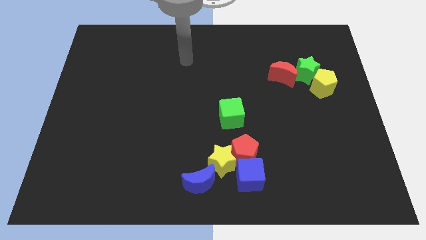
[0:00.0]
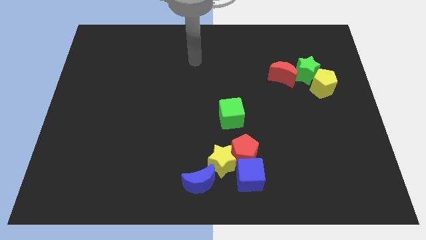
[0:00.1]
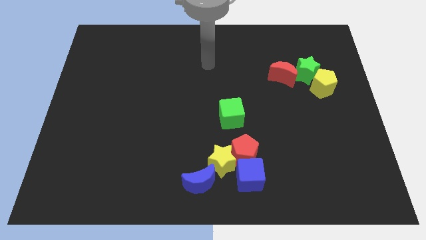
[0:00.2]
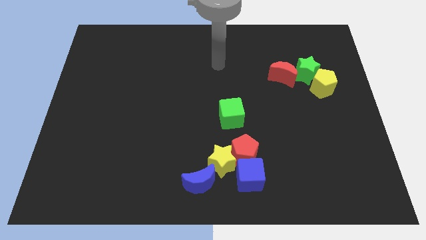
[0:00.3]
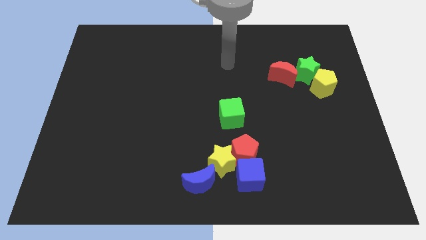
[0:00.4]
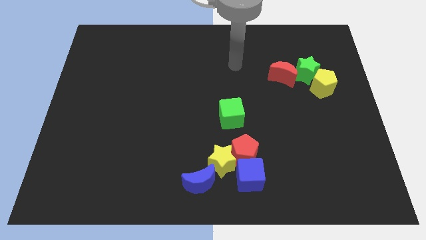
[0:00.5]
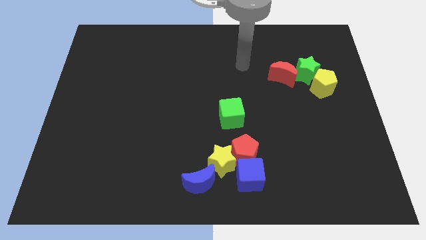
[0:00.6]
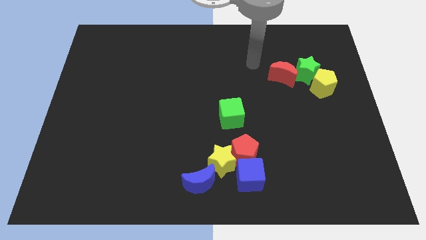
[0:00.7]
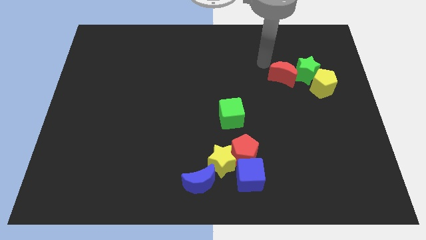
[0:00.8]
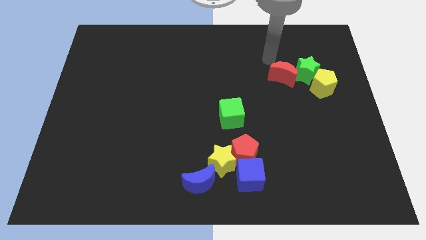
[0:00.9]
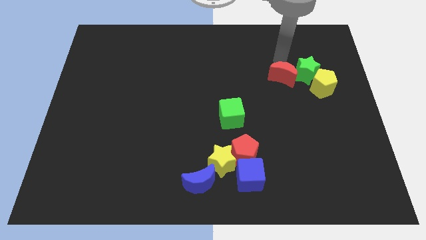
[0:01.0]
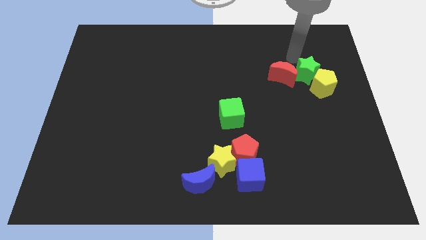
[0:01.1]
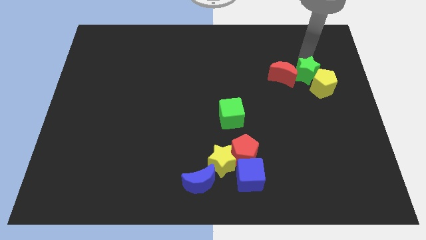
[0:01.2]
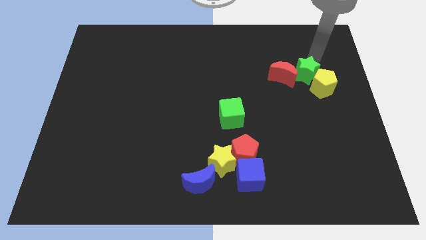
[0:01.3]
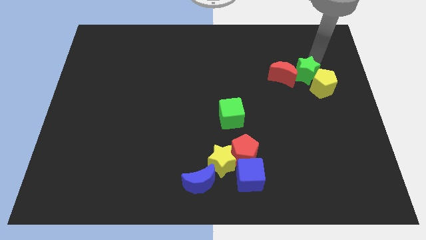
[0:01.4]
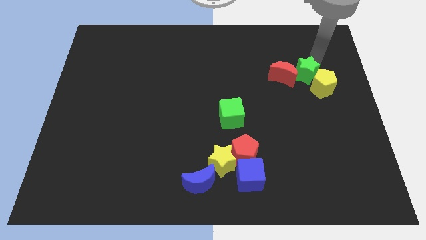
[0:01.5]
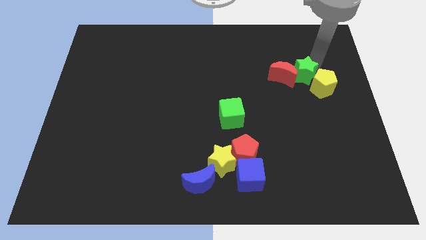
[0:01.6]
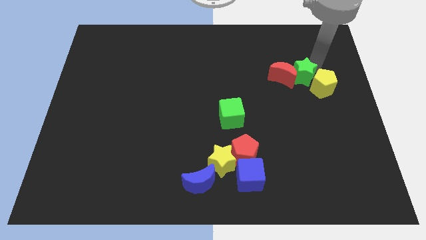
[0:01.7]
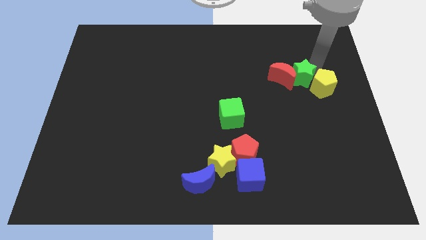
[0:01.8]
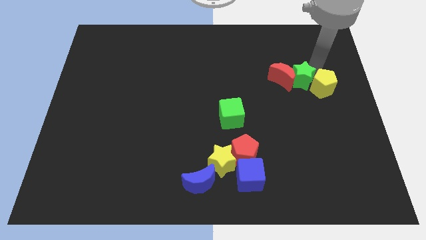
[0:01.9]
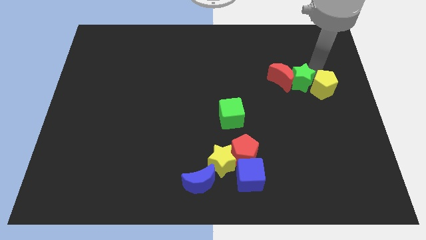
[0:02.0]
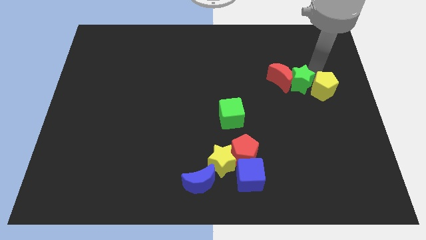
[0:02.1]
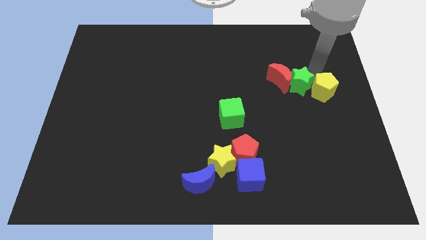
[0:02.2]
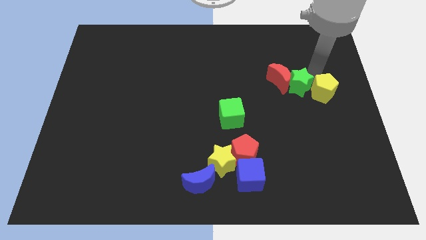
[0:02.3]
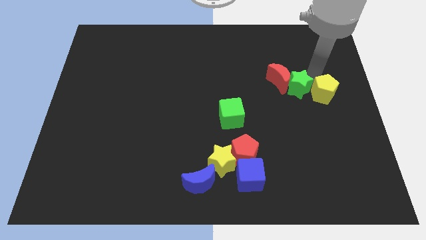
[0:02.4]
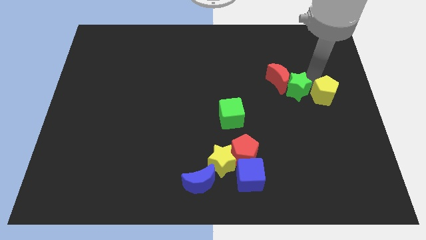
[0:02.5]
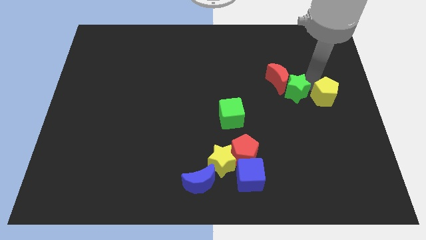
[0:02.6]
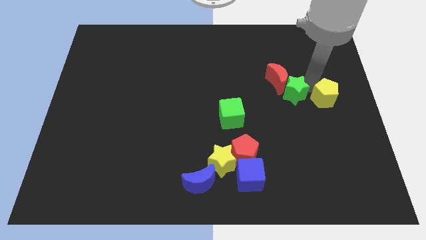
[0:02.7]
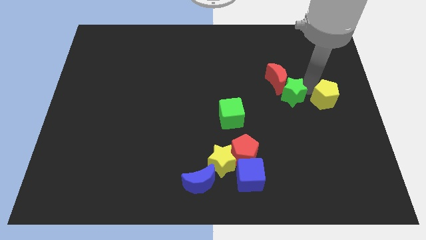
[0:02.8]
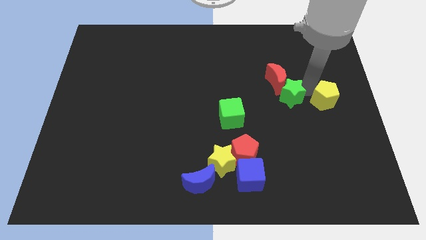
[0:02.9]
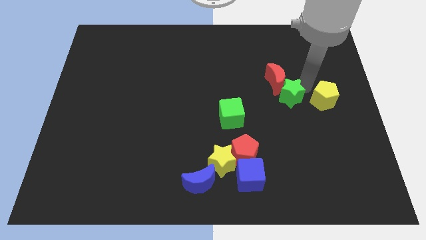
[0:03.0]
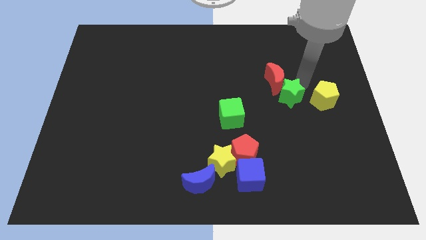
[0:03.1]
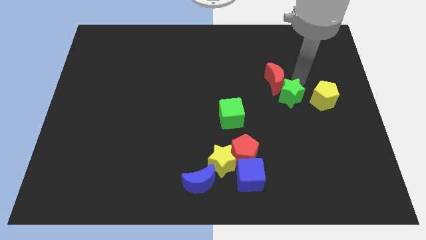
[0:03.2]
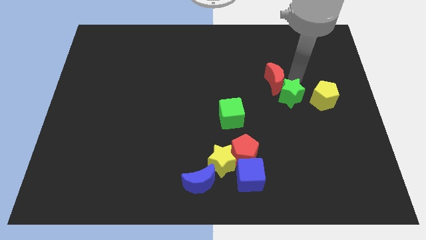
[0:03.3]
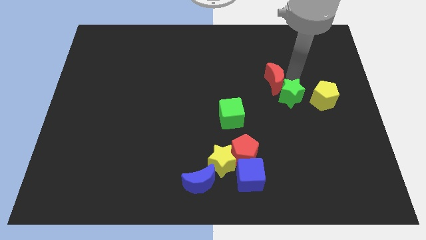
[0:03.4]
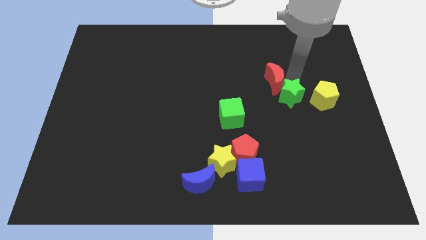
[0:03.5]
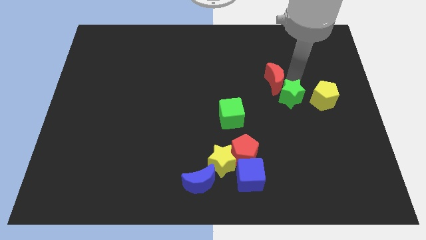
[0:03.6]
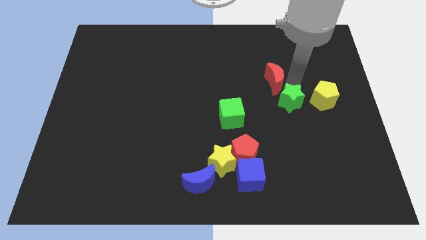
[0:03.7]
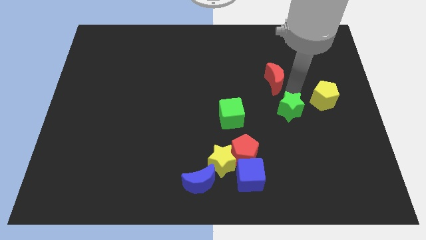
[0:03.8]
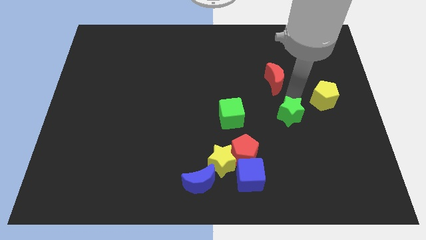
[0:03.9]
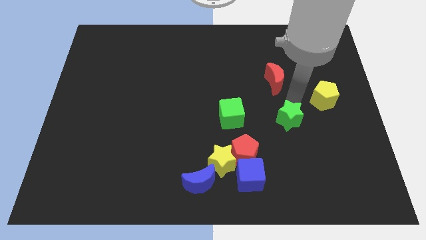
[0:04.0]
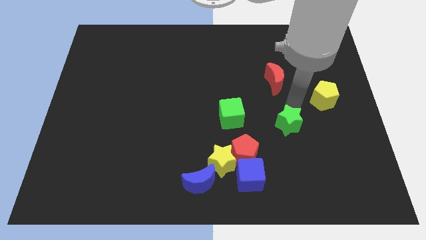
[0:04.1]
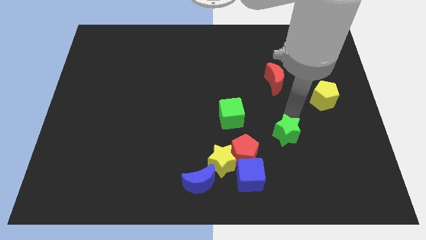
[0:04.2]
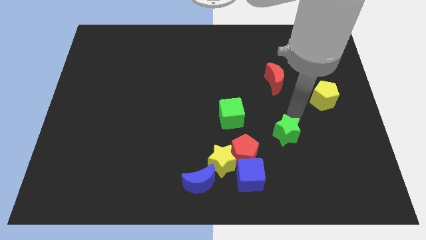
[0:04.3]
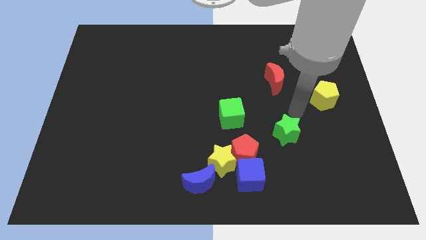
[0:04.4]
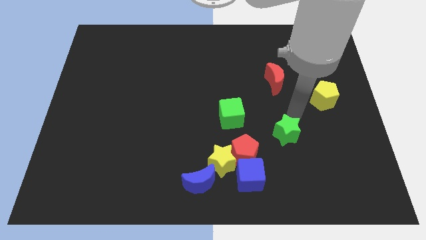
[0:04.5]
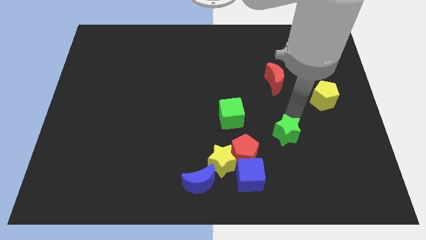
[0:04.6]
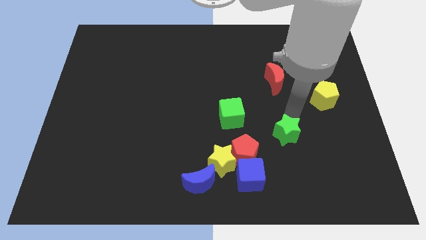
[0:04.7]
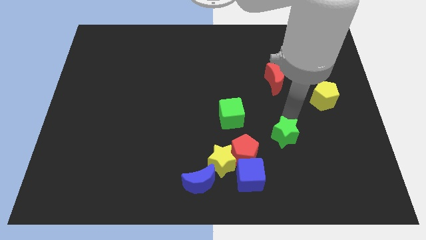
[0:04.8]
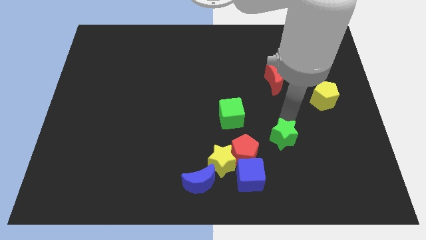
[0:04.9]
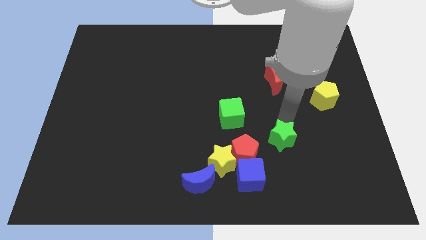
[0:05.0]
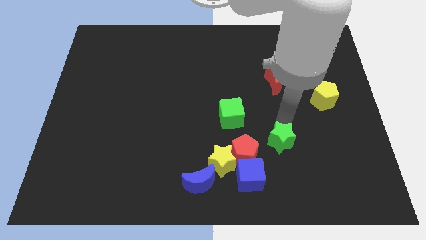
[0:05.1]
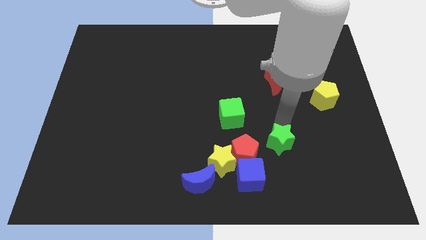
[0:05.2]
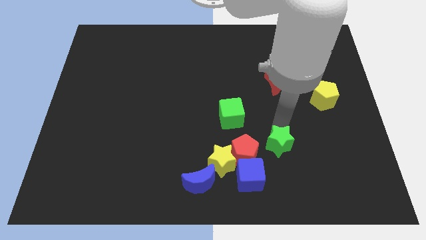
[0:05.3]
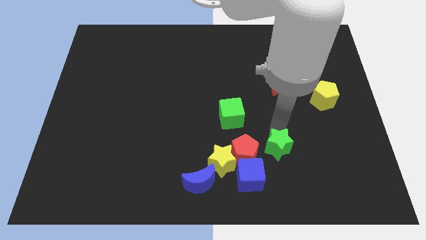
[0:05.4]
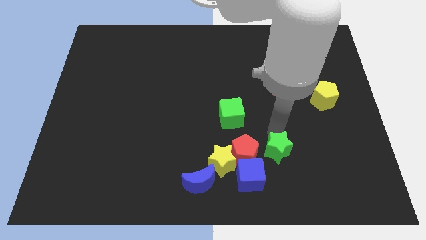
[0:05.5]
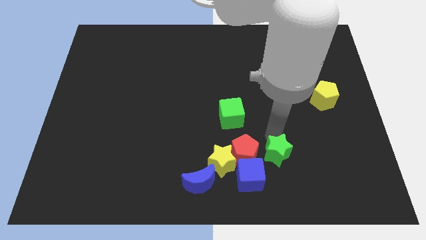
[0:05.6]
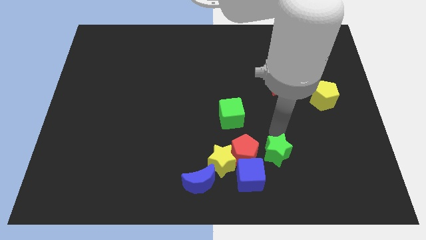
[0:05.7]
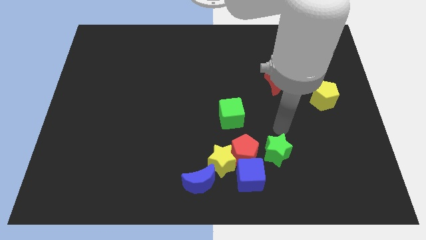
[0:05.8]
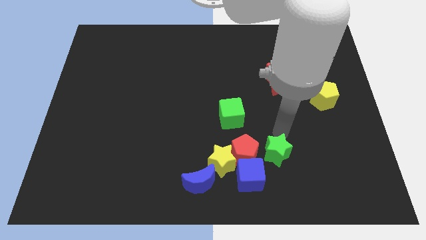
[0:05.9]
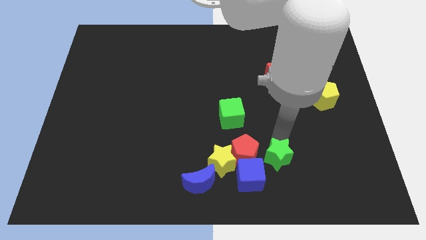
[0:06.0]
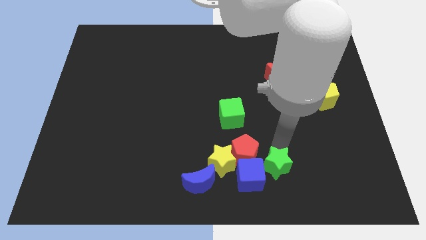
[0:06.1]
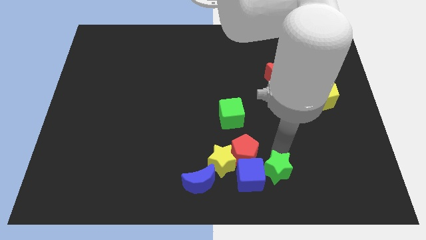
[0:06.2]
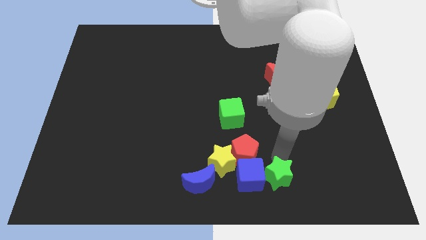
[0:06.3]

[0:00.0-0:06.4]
slide the green star right of the blue moon
